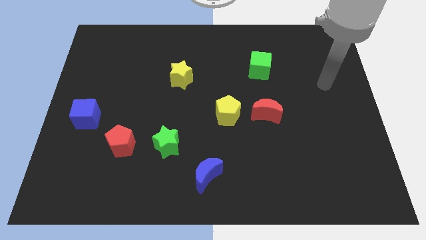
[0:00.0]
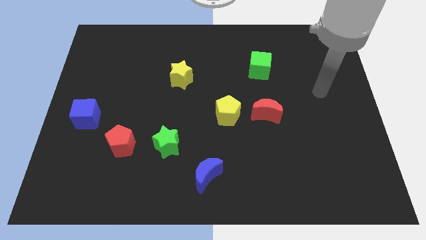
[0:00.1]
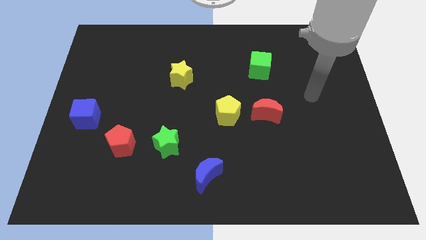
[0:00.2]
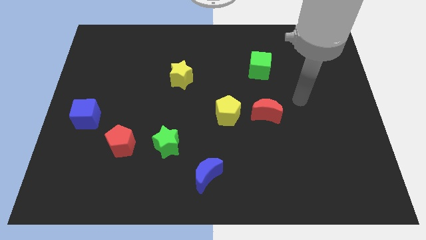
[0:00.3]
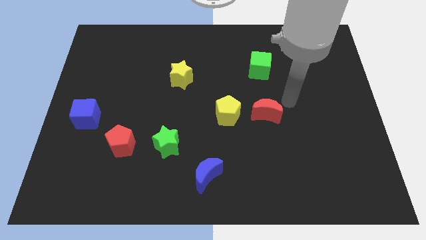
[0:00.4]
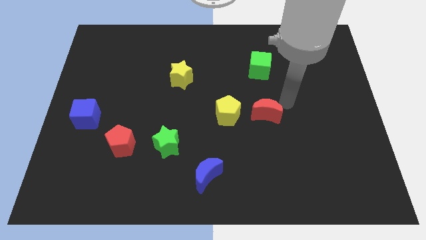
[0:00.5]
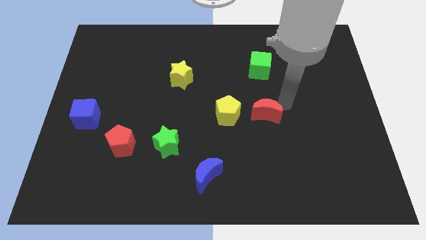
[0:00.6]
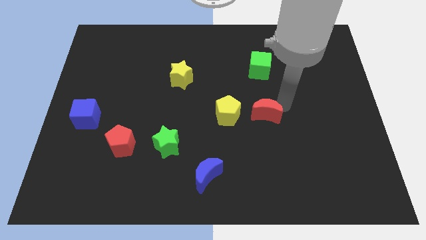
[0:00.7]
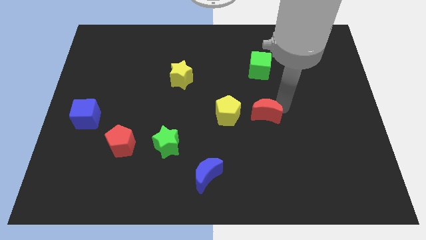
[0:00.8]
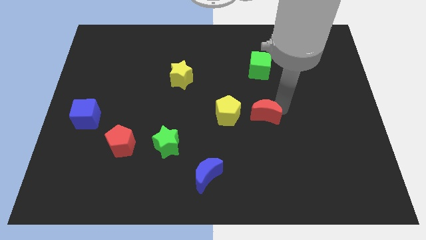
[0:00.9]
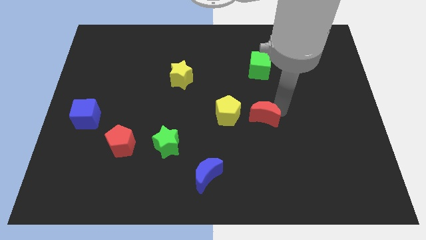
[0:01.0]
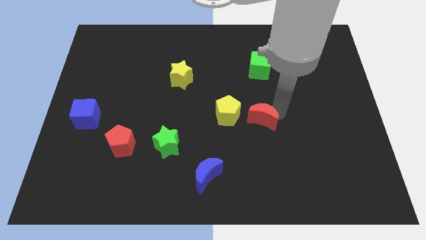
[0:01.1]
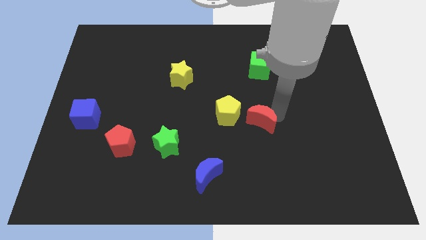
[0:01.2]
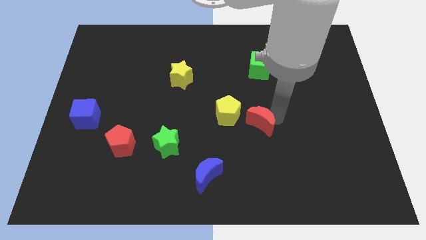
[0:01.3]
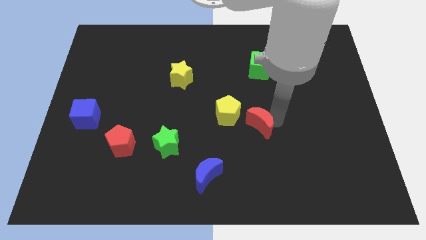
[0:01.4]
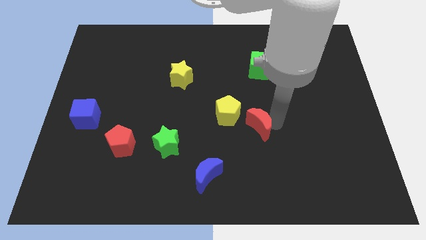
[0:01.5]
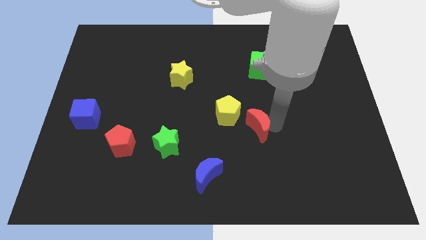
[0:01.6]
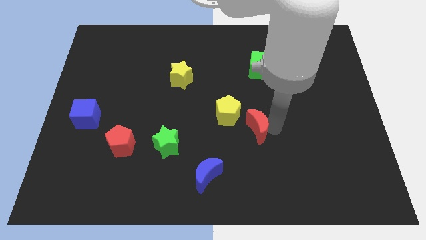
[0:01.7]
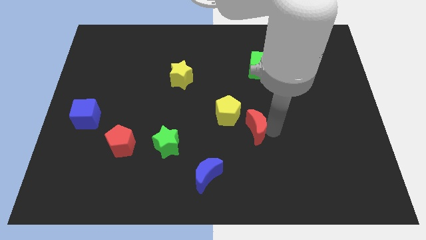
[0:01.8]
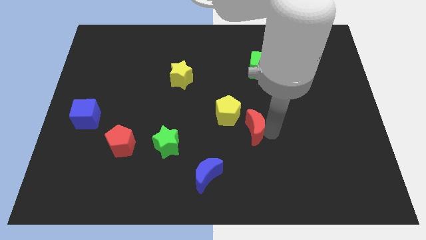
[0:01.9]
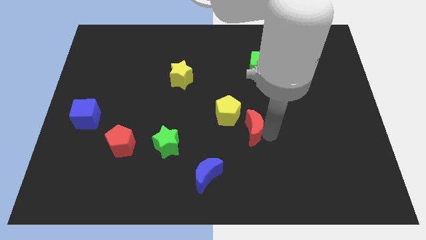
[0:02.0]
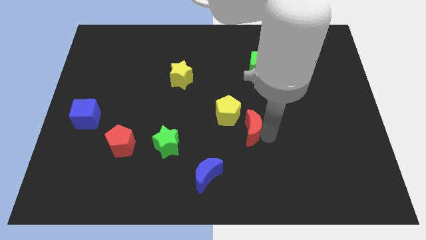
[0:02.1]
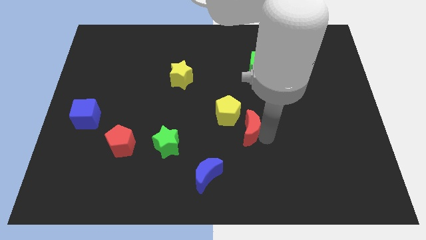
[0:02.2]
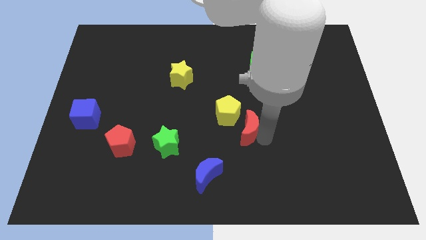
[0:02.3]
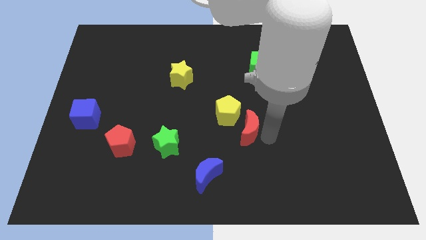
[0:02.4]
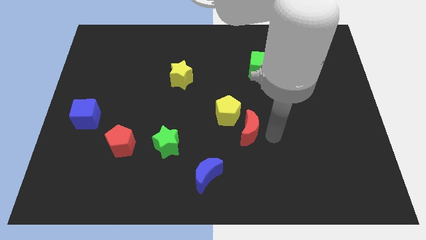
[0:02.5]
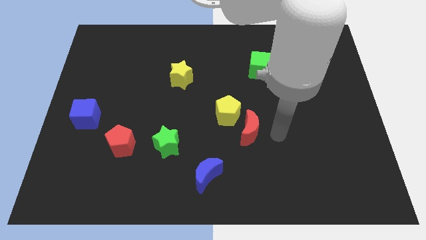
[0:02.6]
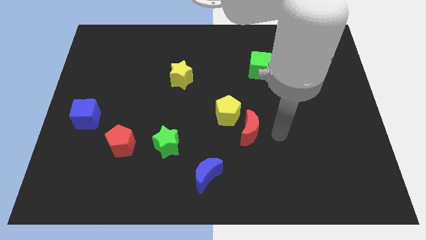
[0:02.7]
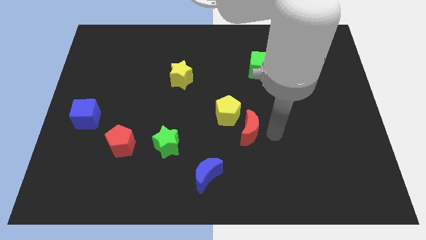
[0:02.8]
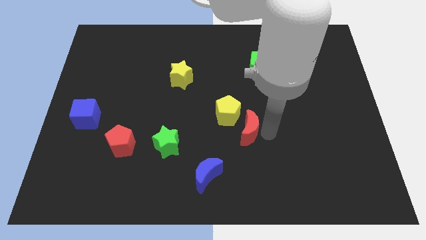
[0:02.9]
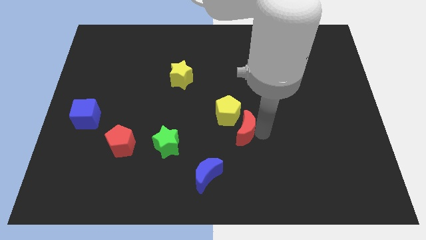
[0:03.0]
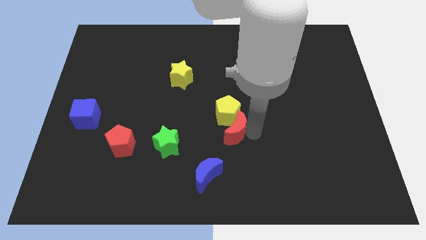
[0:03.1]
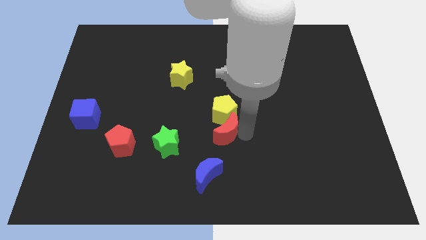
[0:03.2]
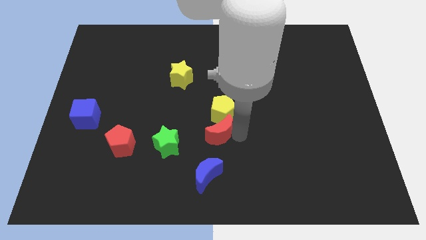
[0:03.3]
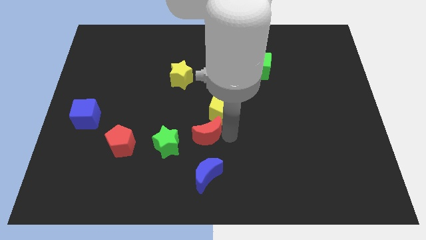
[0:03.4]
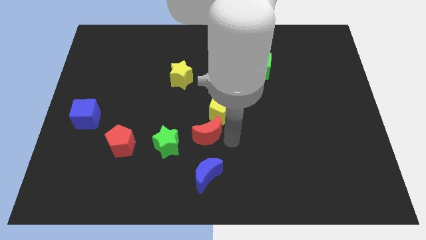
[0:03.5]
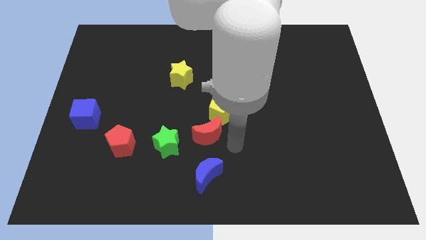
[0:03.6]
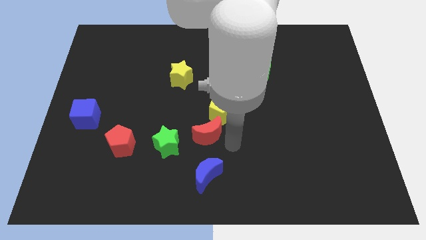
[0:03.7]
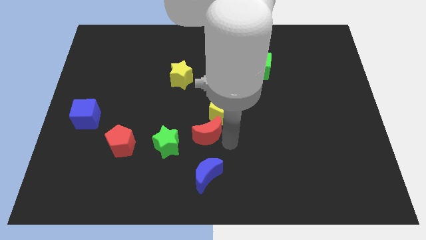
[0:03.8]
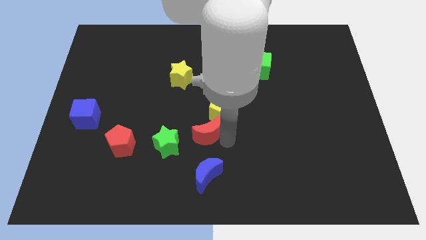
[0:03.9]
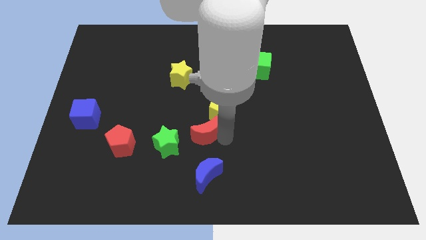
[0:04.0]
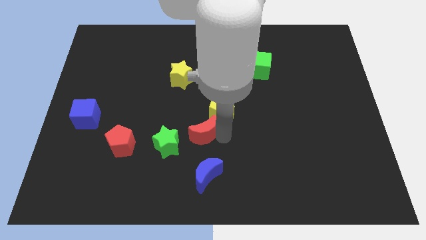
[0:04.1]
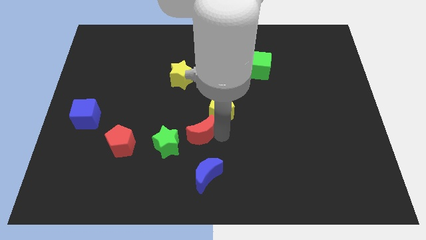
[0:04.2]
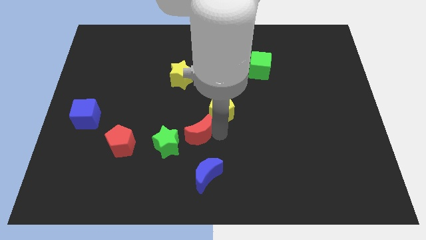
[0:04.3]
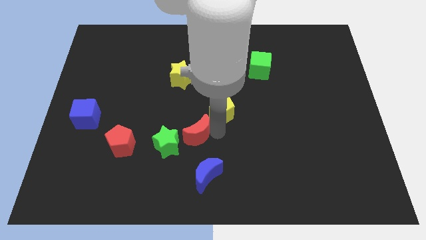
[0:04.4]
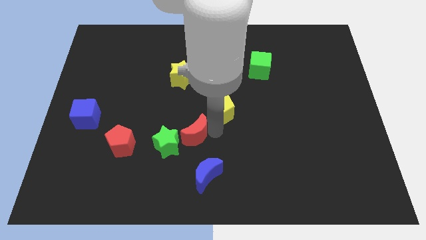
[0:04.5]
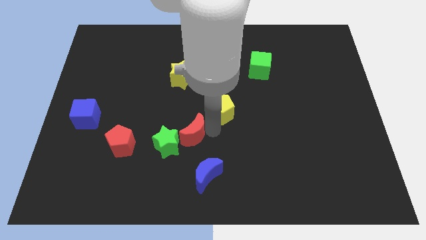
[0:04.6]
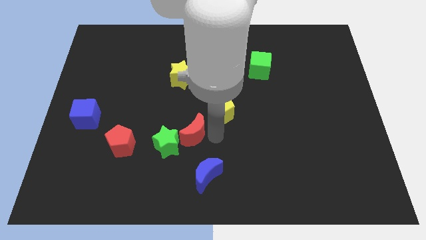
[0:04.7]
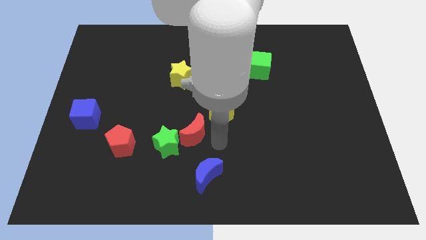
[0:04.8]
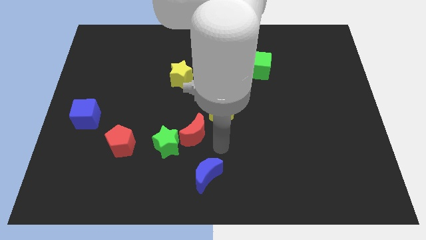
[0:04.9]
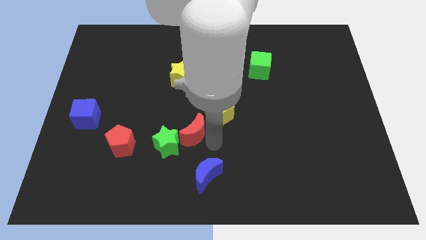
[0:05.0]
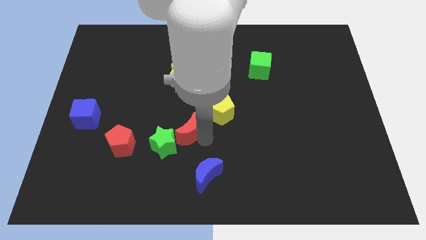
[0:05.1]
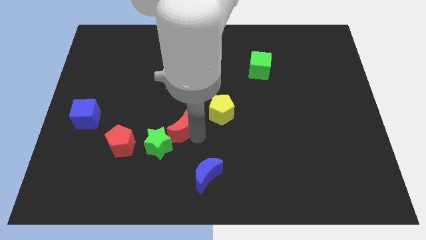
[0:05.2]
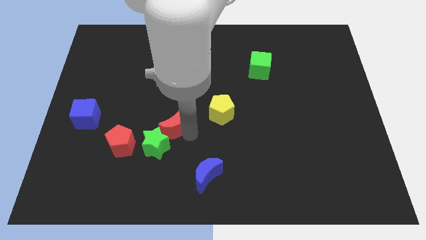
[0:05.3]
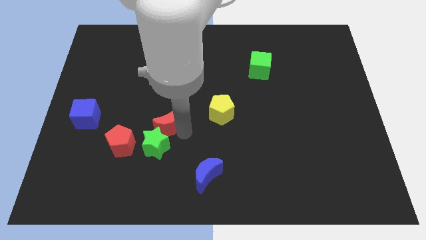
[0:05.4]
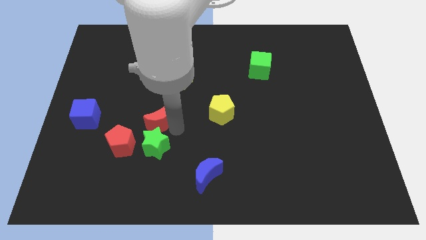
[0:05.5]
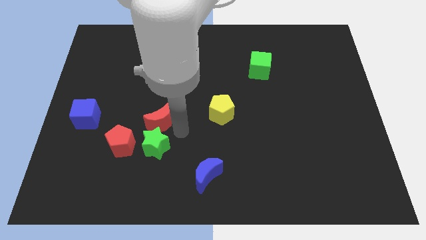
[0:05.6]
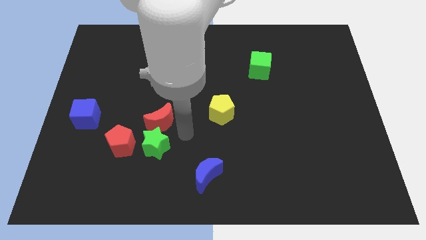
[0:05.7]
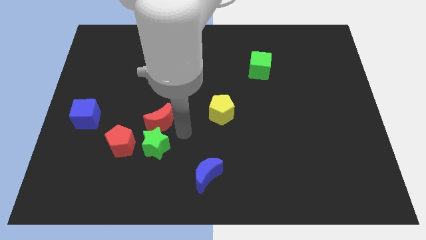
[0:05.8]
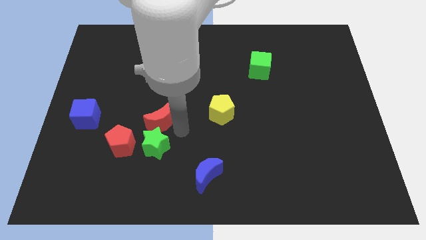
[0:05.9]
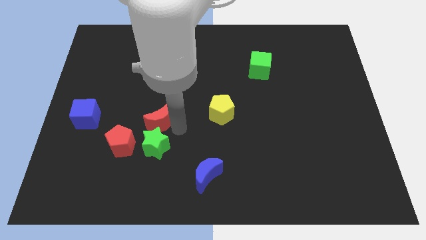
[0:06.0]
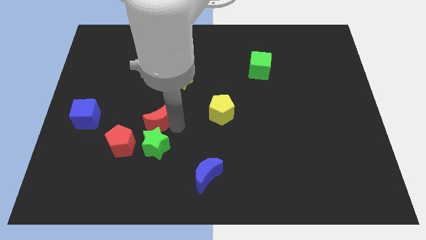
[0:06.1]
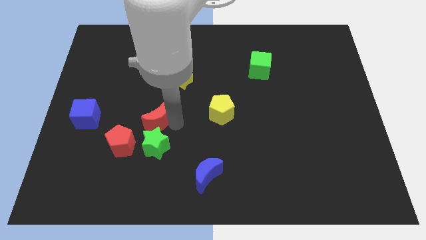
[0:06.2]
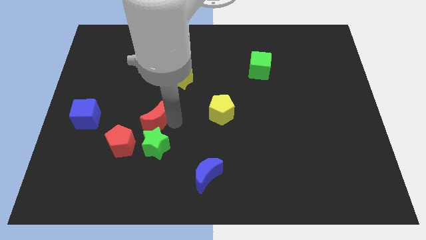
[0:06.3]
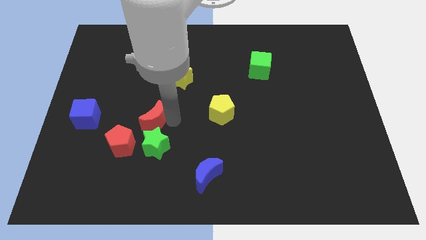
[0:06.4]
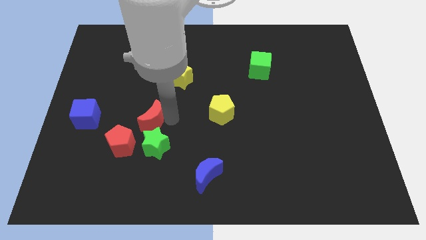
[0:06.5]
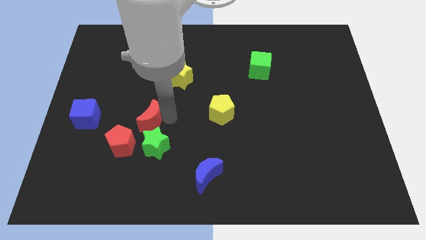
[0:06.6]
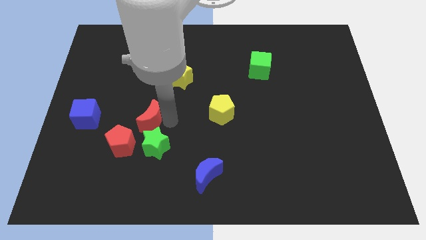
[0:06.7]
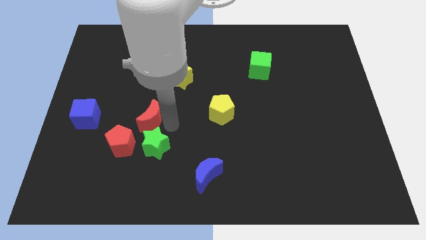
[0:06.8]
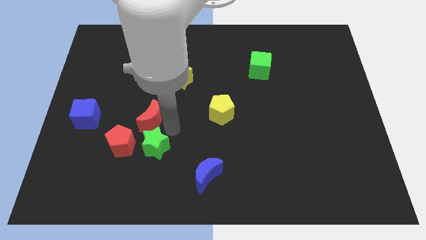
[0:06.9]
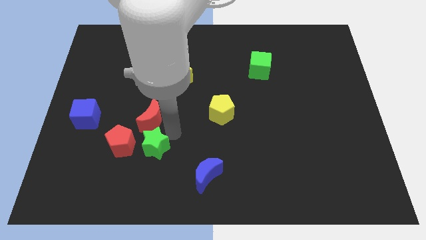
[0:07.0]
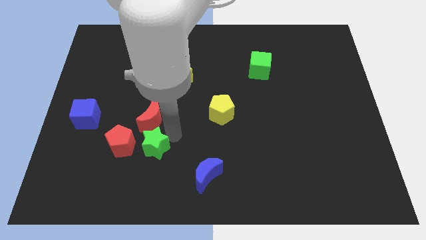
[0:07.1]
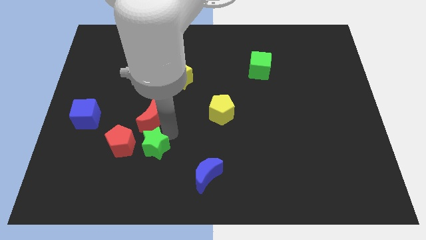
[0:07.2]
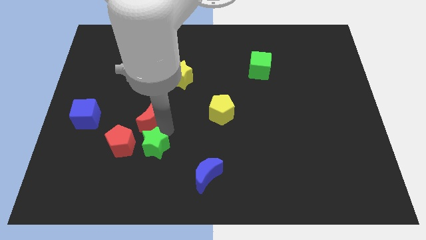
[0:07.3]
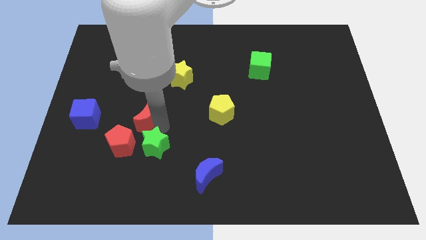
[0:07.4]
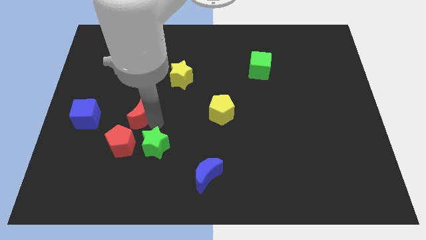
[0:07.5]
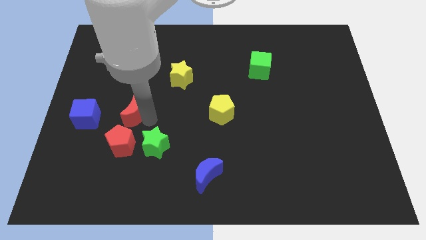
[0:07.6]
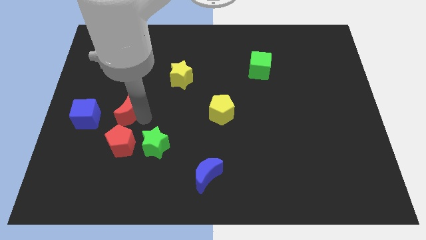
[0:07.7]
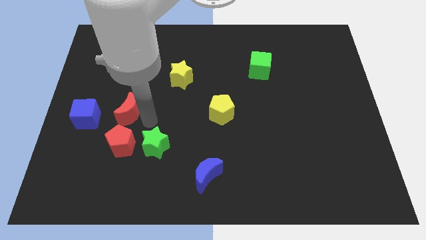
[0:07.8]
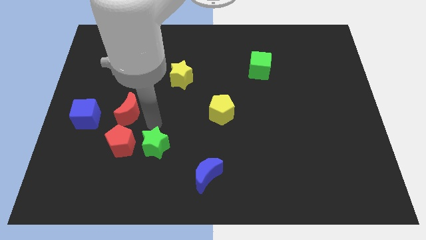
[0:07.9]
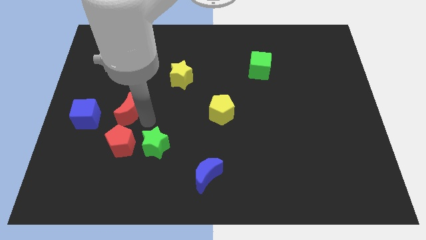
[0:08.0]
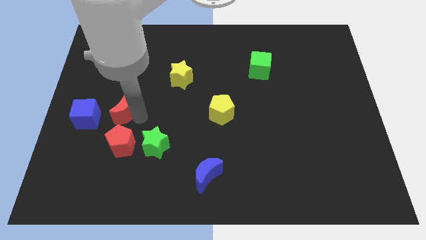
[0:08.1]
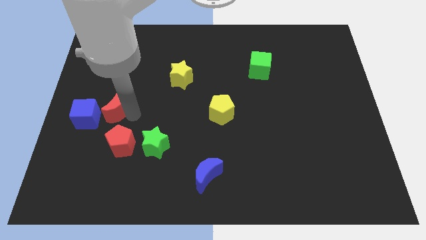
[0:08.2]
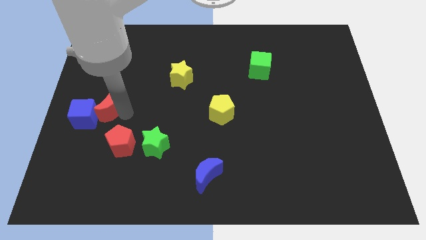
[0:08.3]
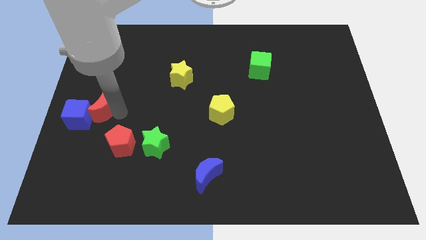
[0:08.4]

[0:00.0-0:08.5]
move the red moon to the left side
